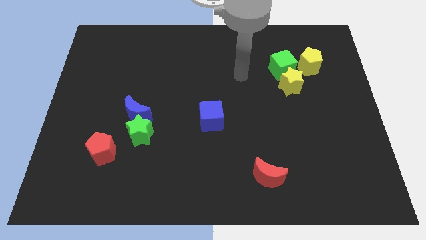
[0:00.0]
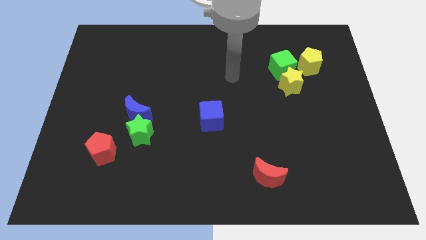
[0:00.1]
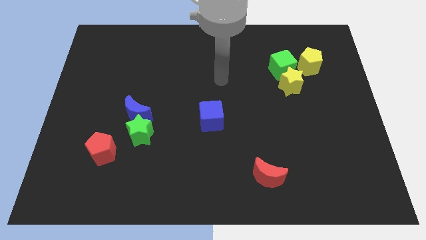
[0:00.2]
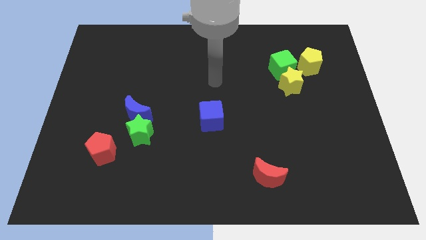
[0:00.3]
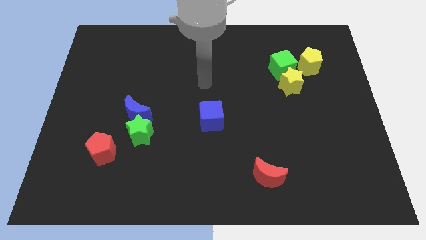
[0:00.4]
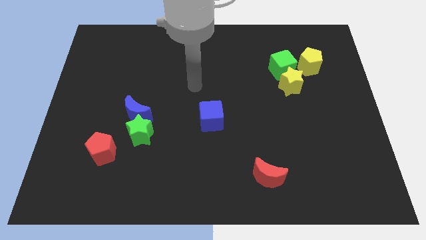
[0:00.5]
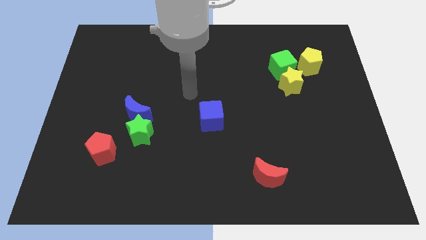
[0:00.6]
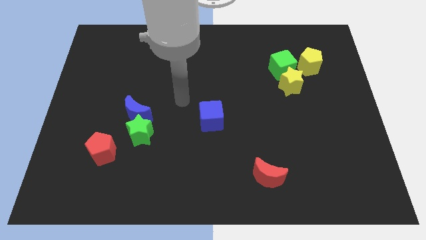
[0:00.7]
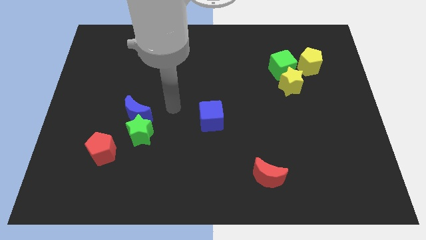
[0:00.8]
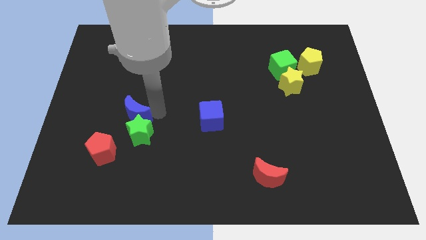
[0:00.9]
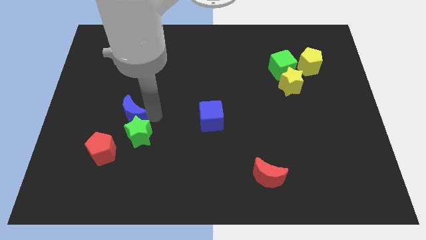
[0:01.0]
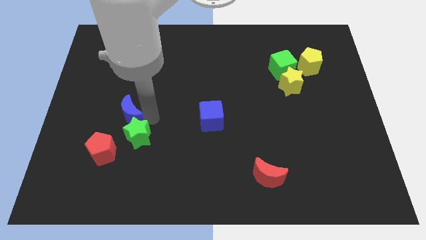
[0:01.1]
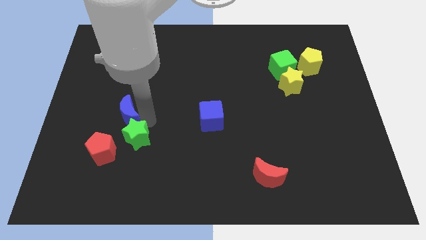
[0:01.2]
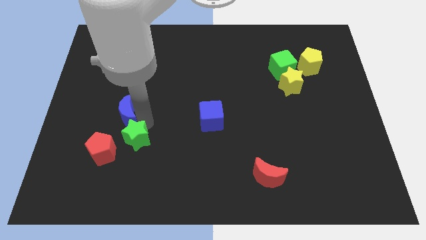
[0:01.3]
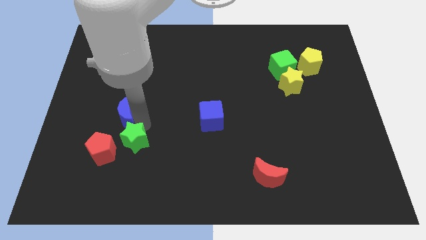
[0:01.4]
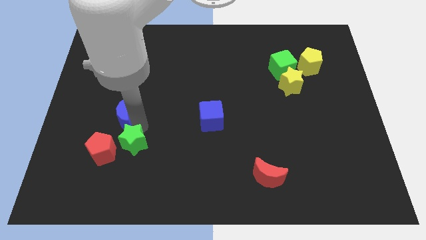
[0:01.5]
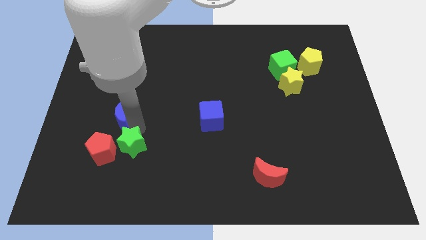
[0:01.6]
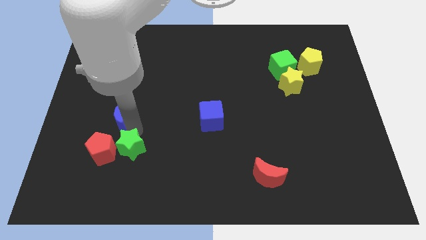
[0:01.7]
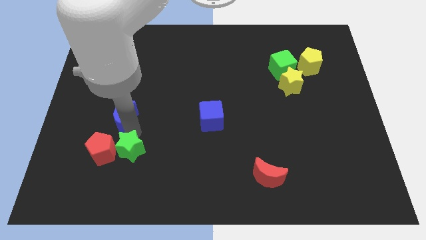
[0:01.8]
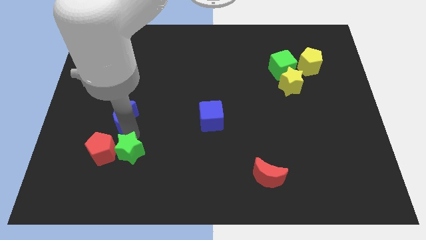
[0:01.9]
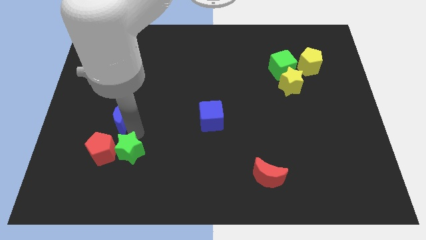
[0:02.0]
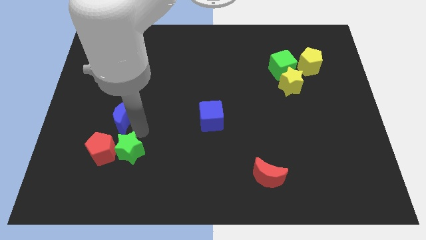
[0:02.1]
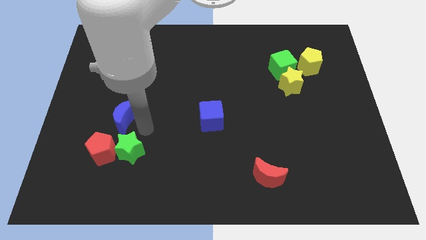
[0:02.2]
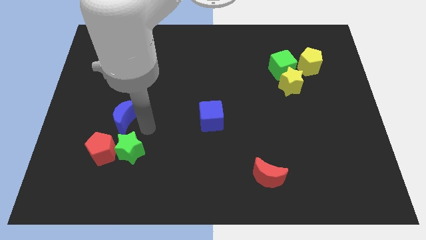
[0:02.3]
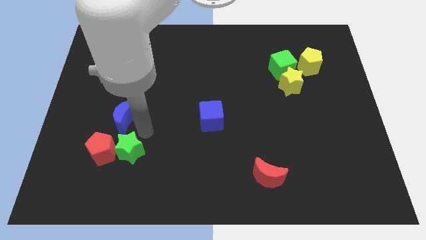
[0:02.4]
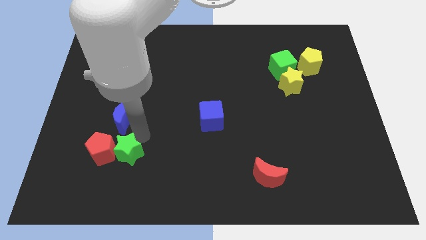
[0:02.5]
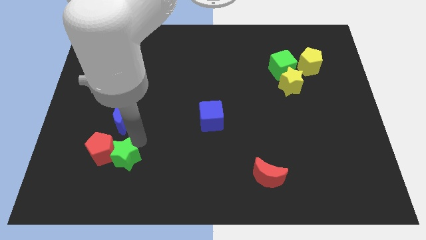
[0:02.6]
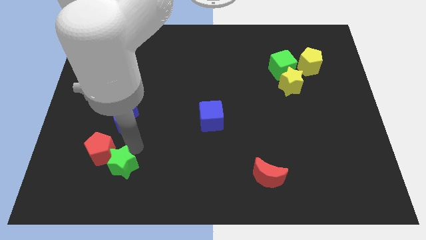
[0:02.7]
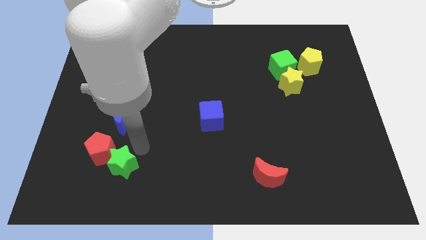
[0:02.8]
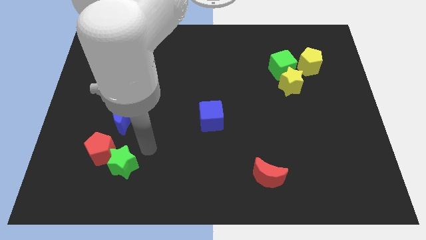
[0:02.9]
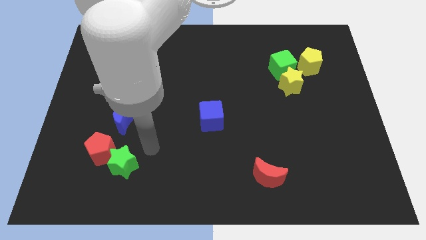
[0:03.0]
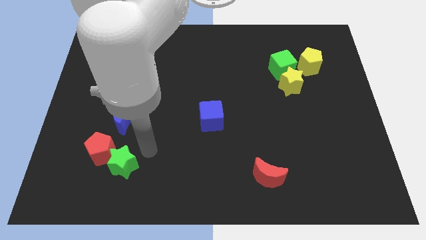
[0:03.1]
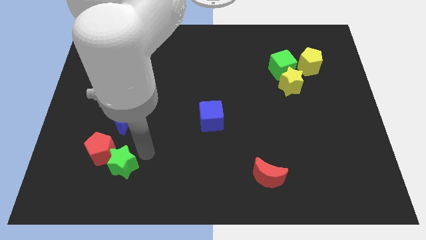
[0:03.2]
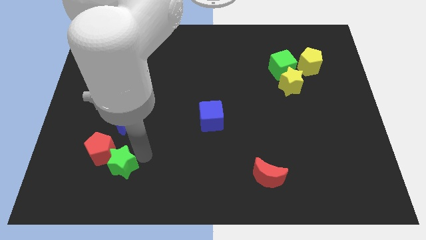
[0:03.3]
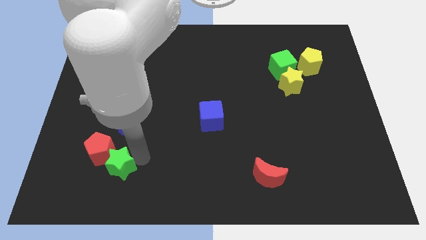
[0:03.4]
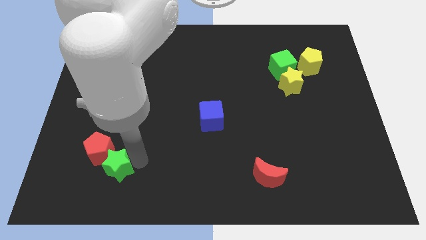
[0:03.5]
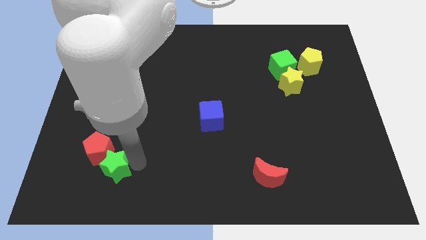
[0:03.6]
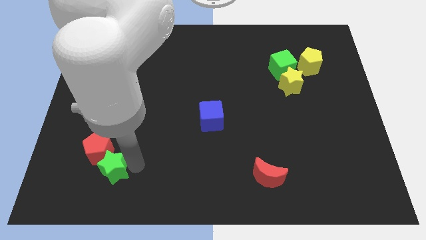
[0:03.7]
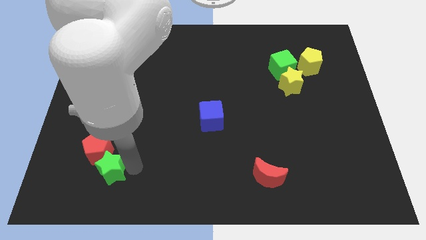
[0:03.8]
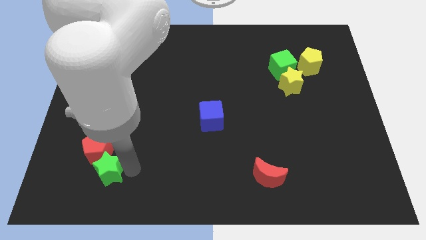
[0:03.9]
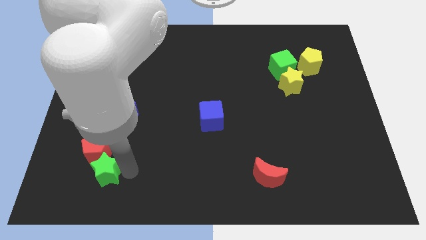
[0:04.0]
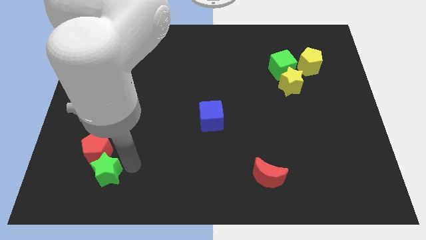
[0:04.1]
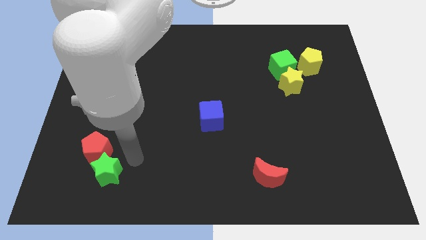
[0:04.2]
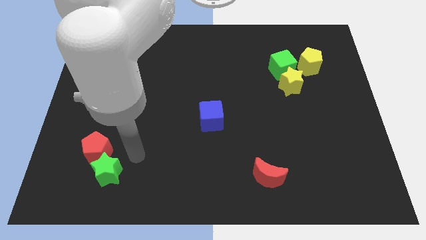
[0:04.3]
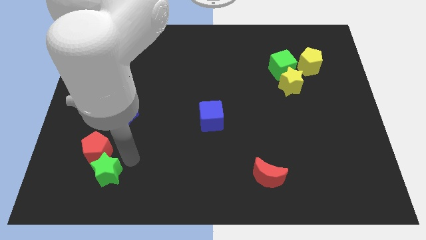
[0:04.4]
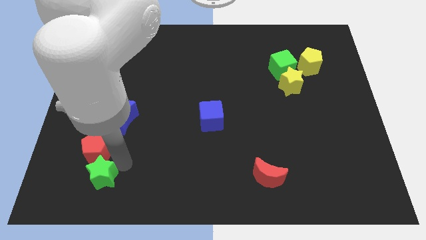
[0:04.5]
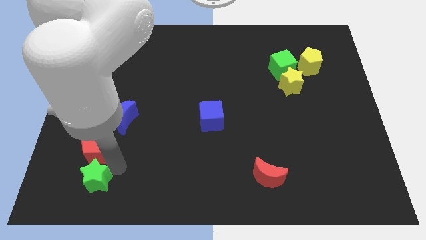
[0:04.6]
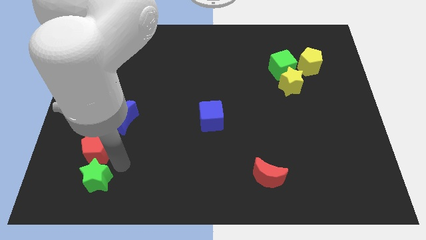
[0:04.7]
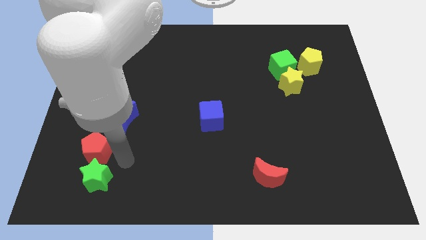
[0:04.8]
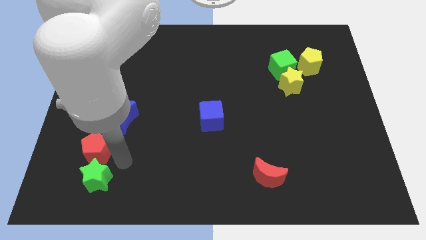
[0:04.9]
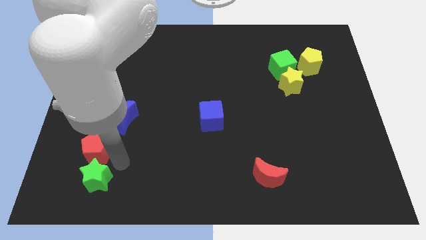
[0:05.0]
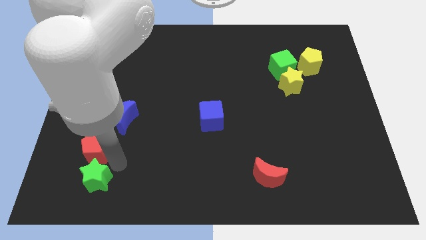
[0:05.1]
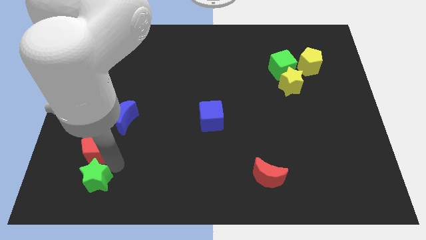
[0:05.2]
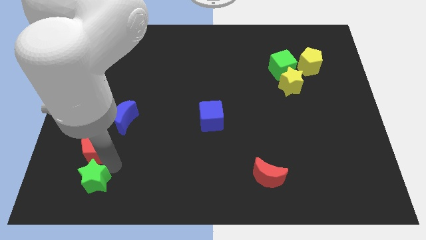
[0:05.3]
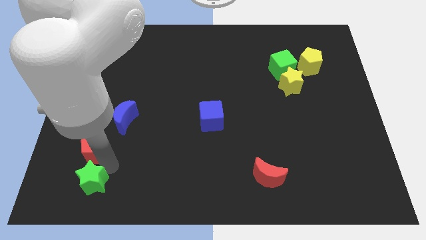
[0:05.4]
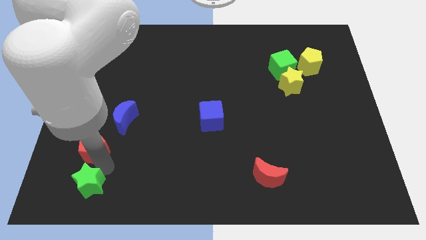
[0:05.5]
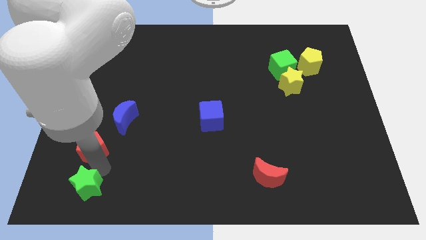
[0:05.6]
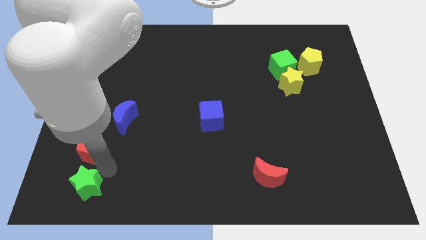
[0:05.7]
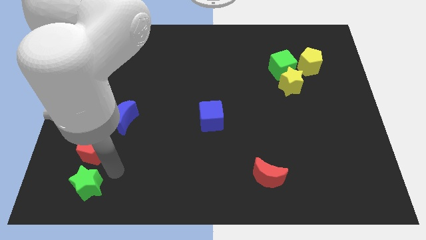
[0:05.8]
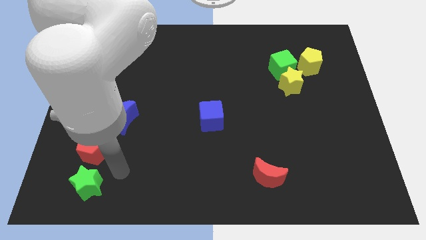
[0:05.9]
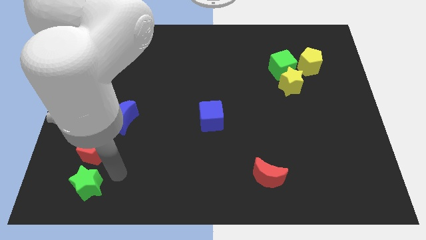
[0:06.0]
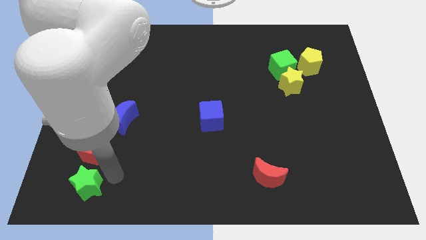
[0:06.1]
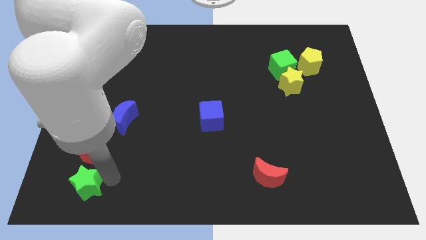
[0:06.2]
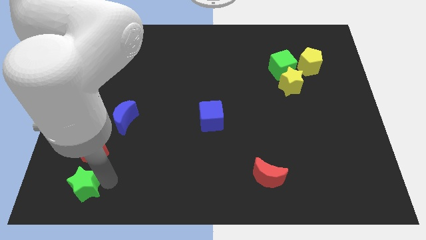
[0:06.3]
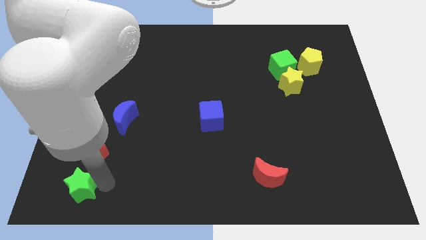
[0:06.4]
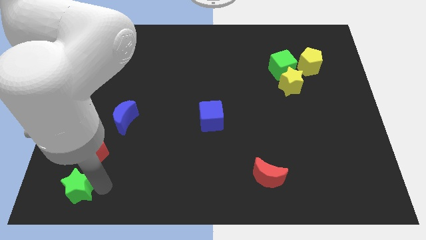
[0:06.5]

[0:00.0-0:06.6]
move the green star to the bottom left

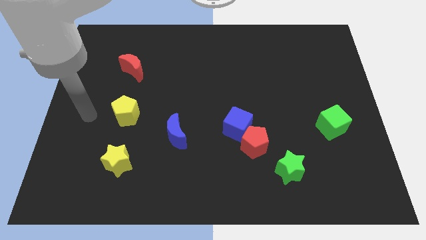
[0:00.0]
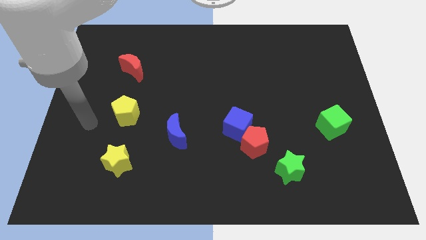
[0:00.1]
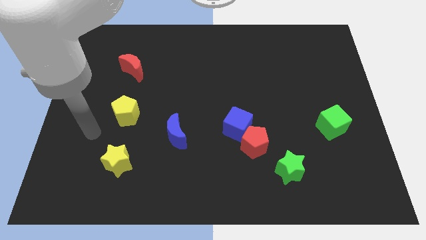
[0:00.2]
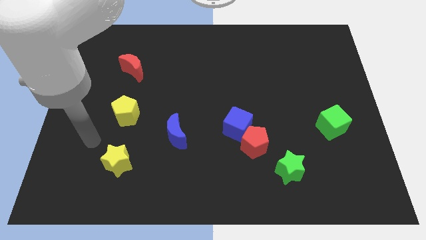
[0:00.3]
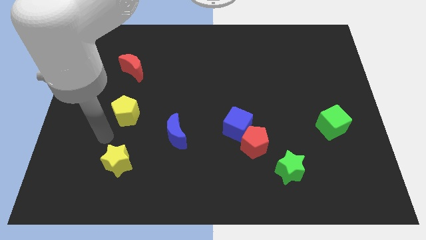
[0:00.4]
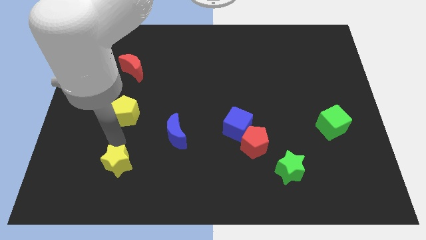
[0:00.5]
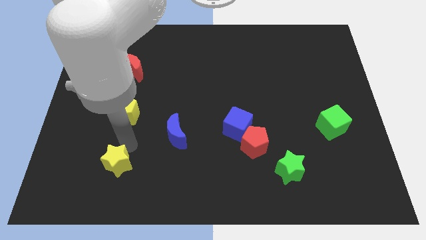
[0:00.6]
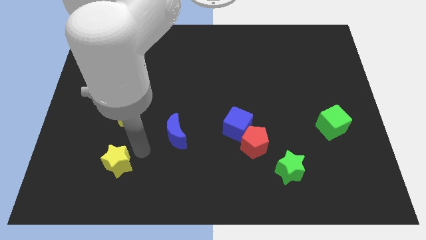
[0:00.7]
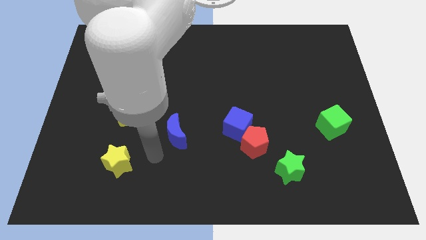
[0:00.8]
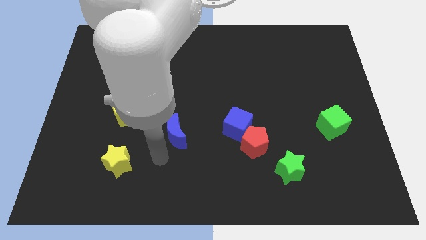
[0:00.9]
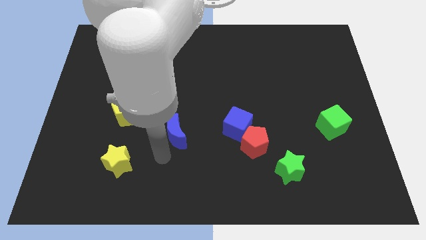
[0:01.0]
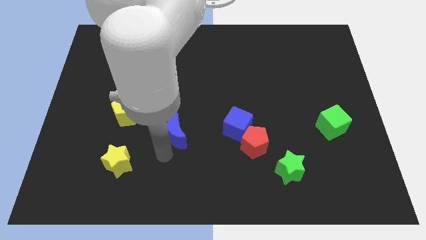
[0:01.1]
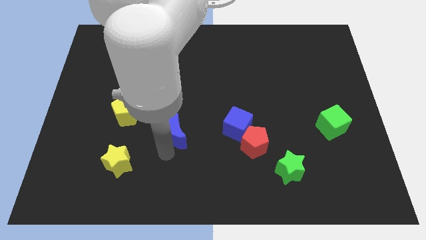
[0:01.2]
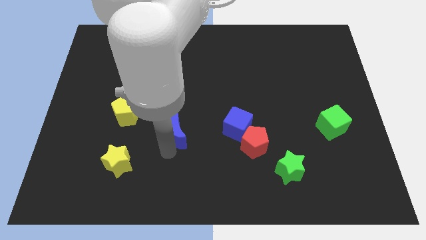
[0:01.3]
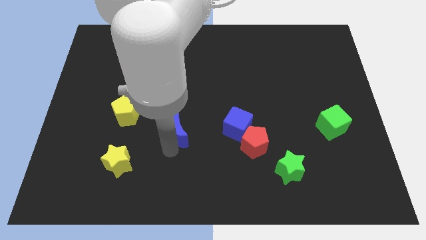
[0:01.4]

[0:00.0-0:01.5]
move the blue moon to the middle of the board
